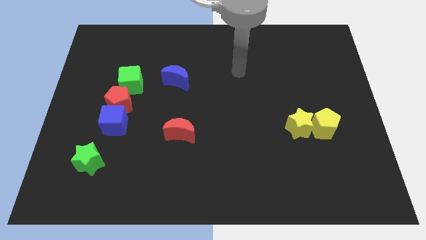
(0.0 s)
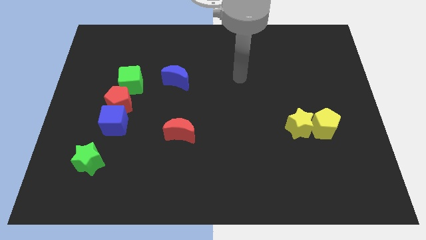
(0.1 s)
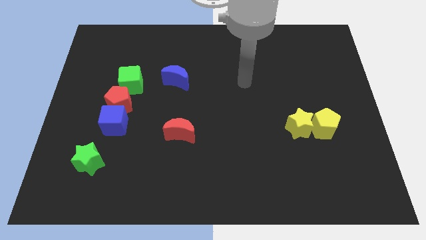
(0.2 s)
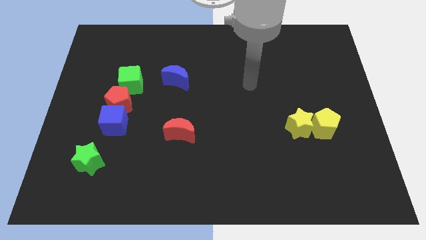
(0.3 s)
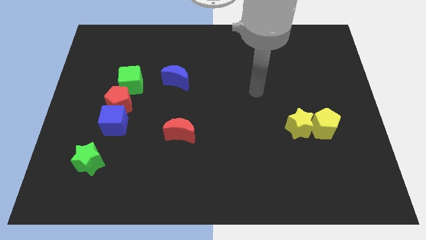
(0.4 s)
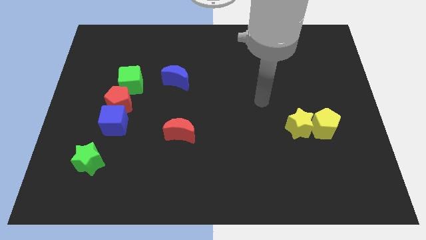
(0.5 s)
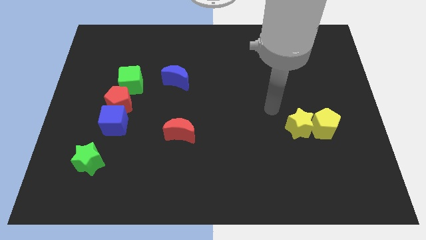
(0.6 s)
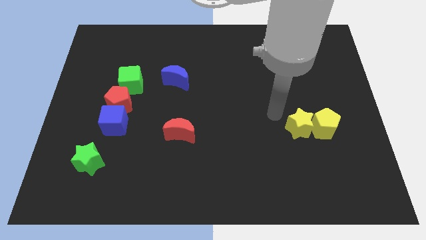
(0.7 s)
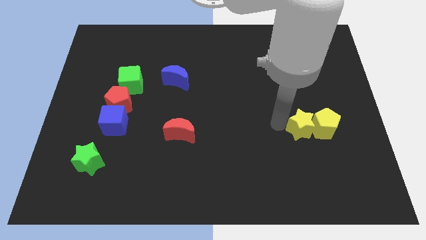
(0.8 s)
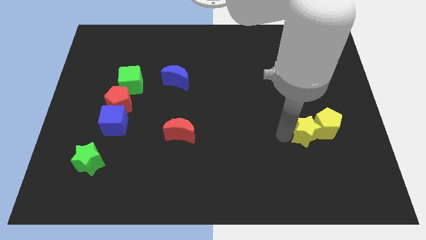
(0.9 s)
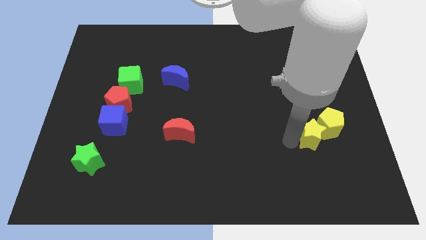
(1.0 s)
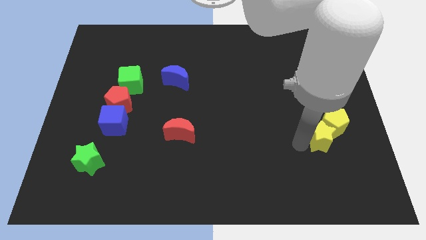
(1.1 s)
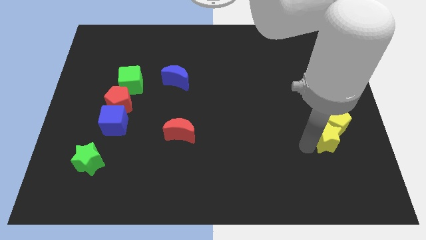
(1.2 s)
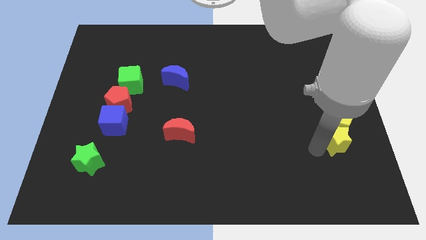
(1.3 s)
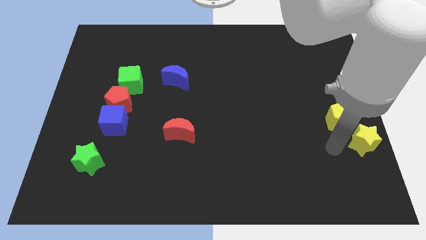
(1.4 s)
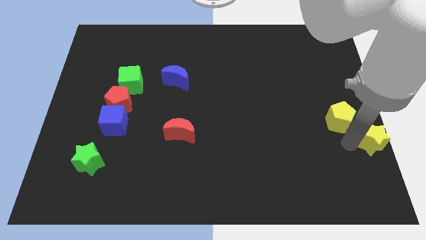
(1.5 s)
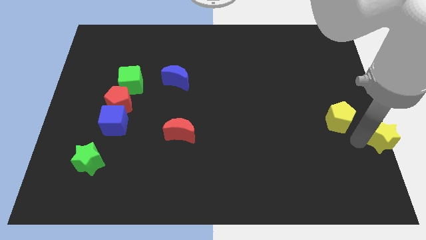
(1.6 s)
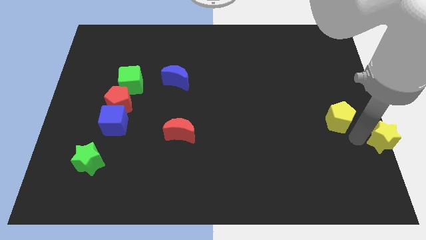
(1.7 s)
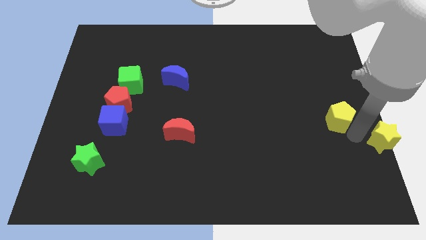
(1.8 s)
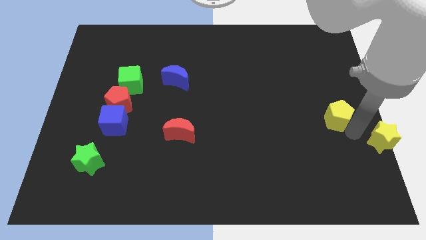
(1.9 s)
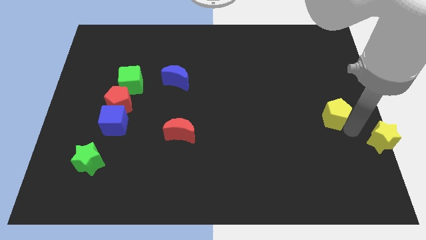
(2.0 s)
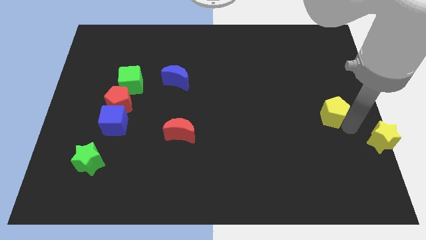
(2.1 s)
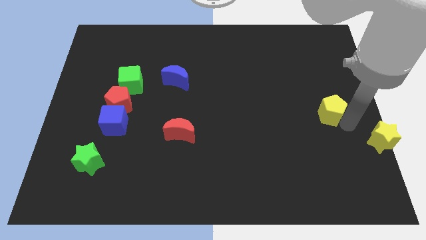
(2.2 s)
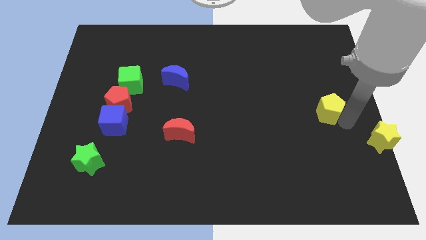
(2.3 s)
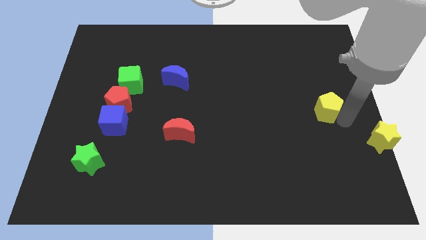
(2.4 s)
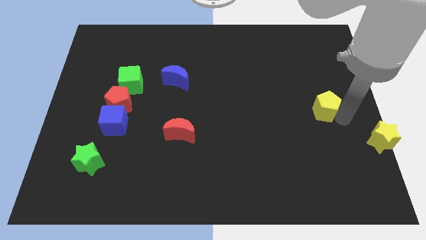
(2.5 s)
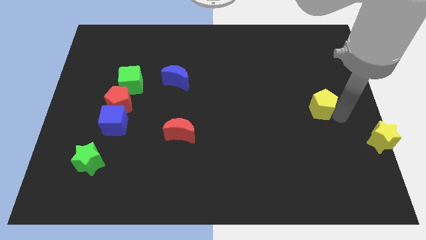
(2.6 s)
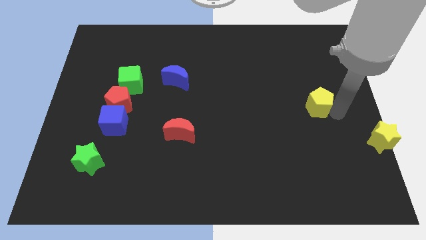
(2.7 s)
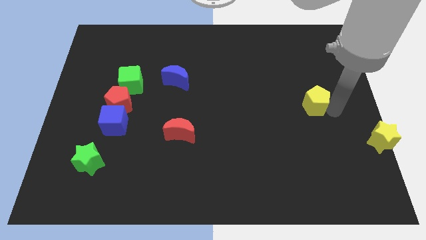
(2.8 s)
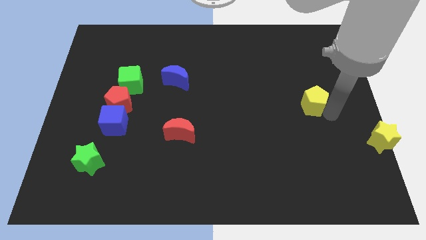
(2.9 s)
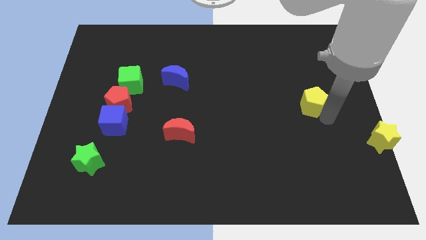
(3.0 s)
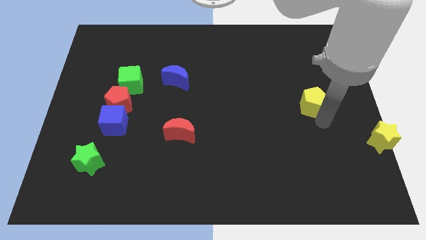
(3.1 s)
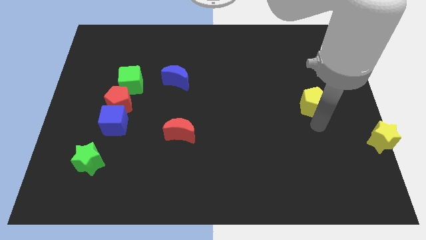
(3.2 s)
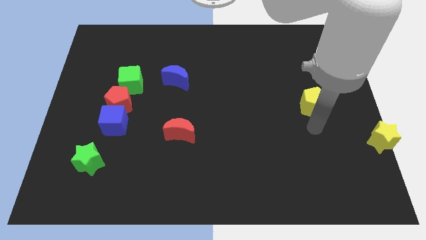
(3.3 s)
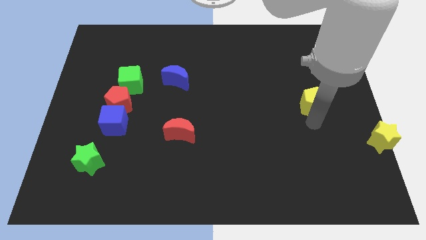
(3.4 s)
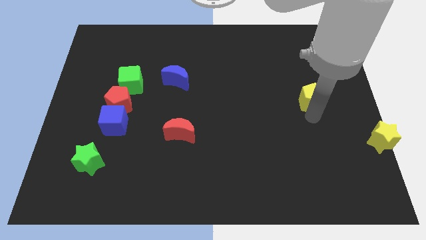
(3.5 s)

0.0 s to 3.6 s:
move the yellow pentagon a little up

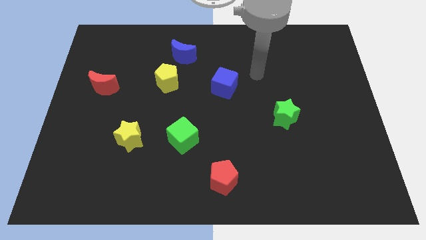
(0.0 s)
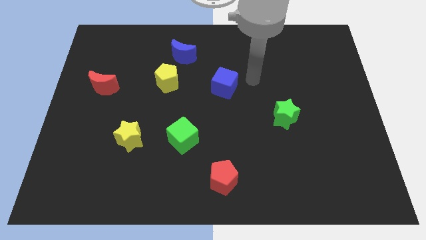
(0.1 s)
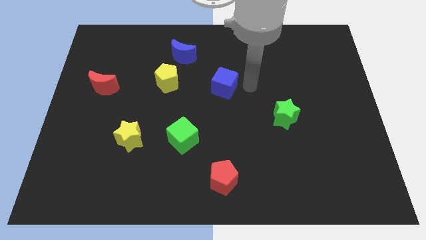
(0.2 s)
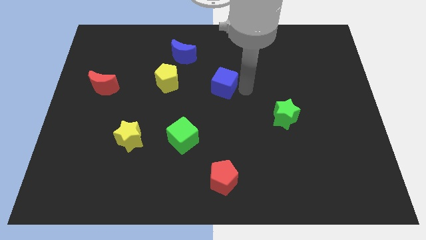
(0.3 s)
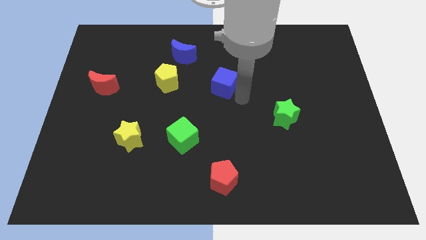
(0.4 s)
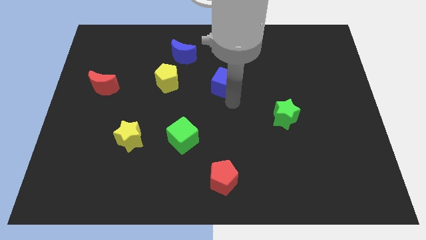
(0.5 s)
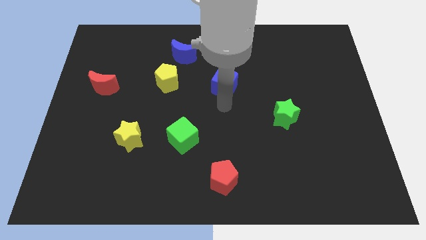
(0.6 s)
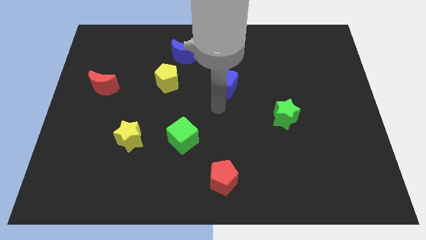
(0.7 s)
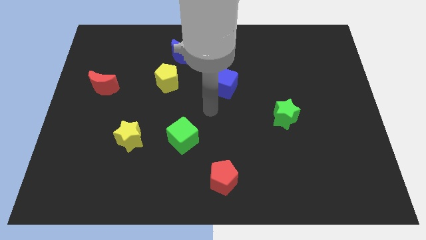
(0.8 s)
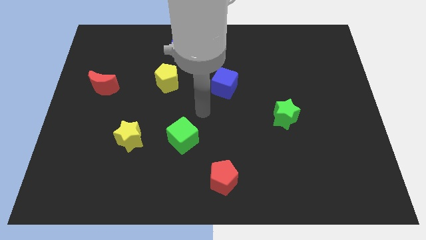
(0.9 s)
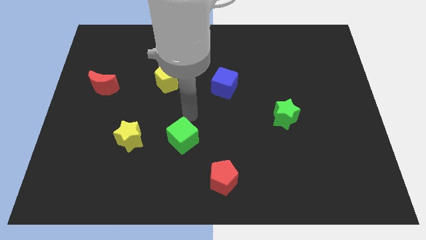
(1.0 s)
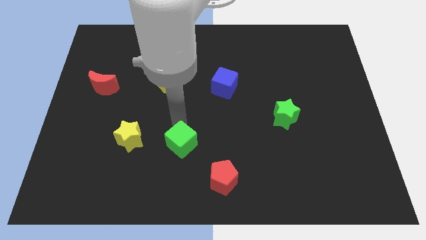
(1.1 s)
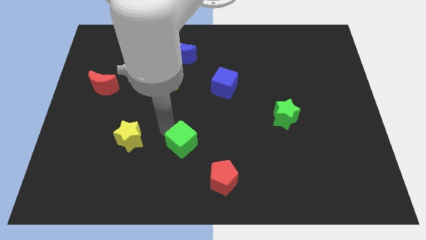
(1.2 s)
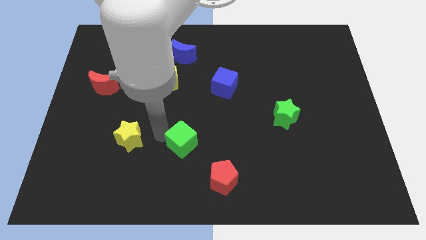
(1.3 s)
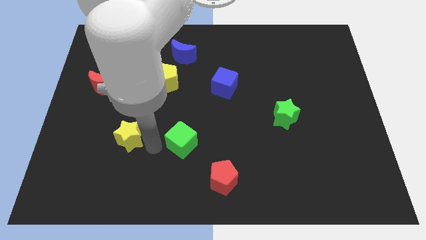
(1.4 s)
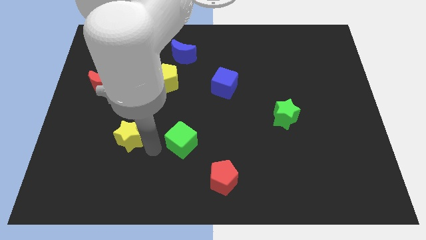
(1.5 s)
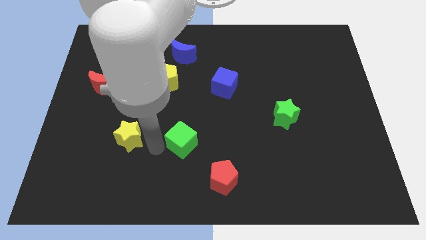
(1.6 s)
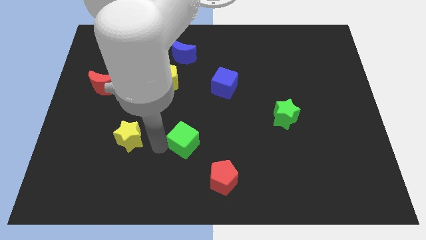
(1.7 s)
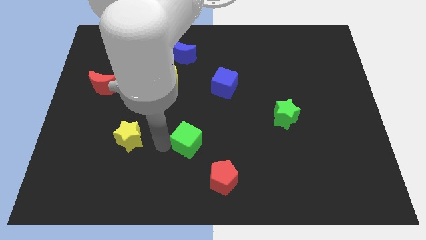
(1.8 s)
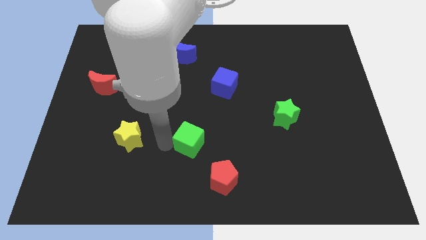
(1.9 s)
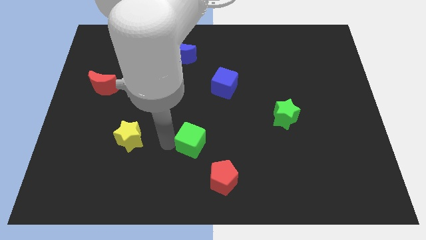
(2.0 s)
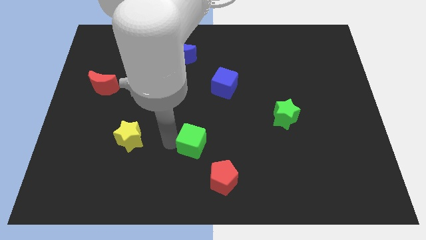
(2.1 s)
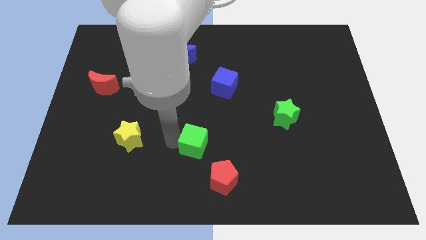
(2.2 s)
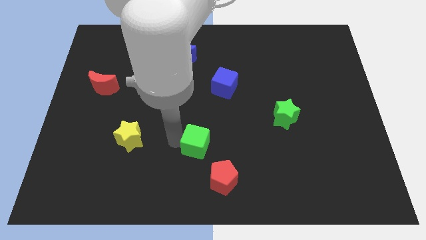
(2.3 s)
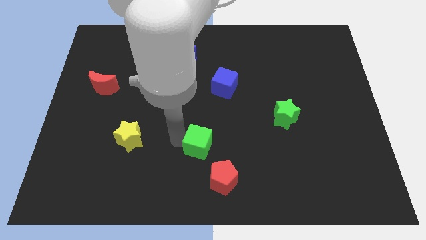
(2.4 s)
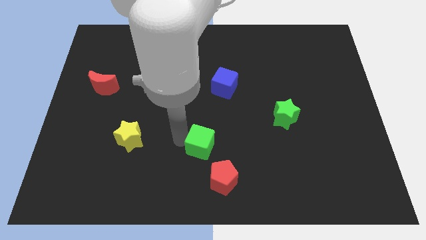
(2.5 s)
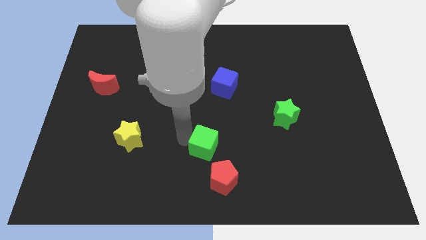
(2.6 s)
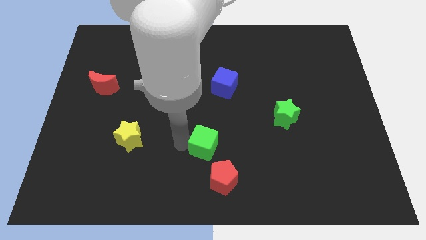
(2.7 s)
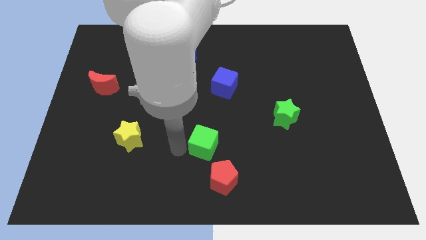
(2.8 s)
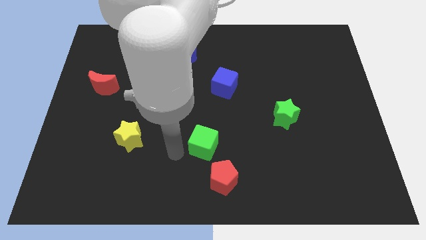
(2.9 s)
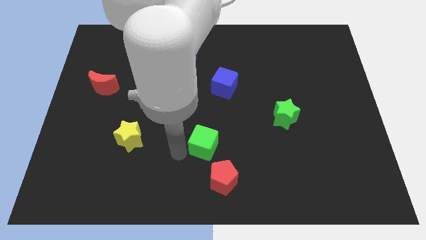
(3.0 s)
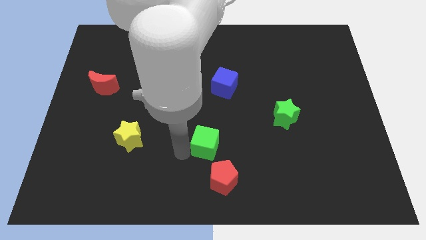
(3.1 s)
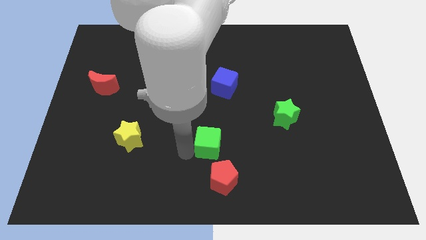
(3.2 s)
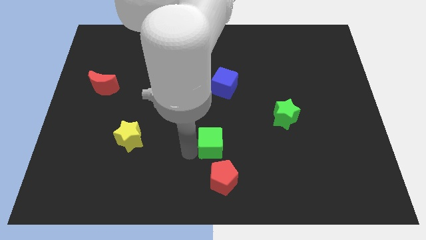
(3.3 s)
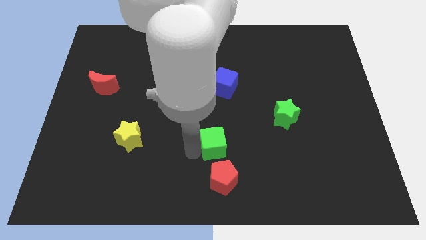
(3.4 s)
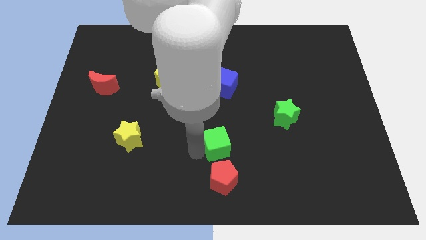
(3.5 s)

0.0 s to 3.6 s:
slightly push the green cube right

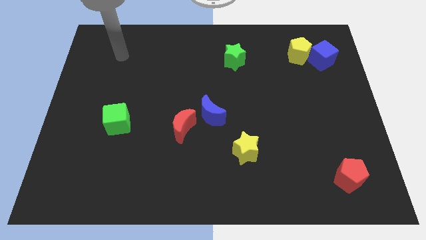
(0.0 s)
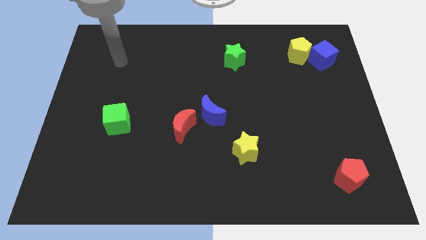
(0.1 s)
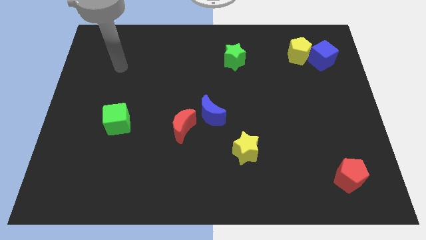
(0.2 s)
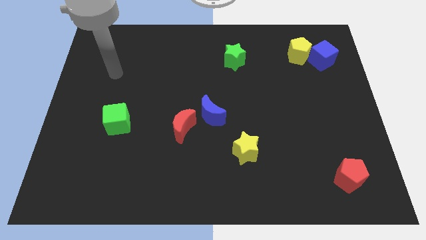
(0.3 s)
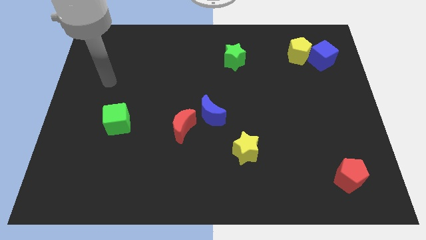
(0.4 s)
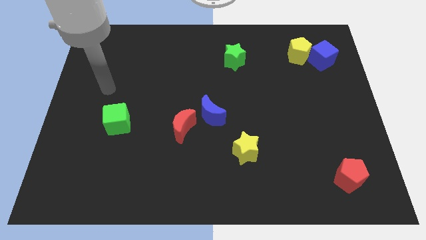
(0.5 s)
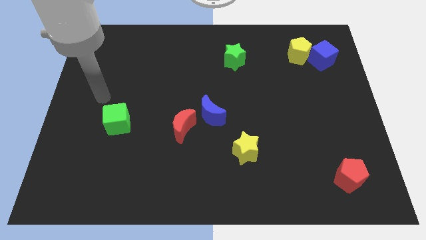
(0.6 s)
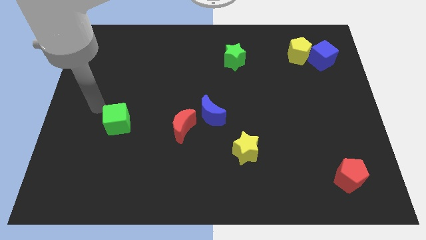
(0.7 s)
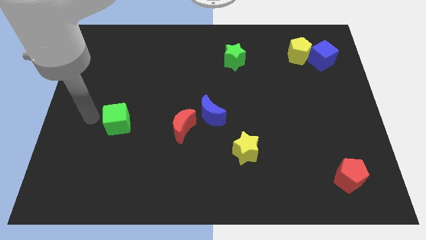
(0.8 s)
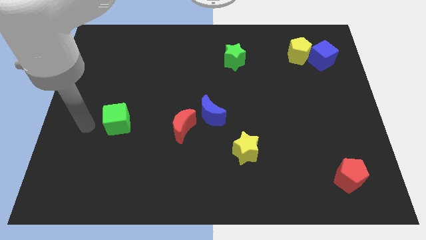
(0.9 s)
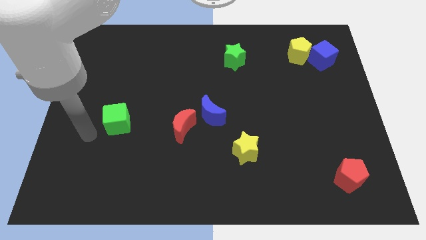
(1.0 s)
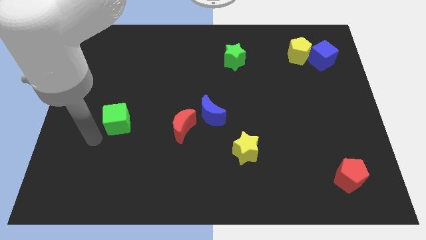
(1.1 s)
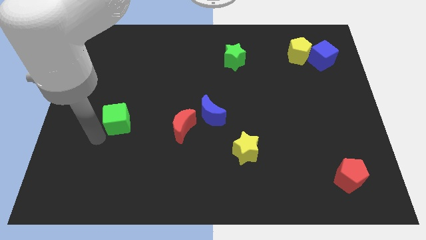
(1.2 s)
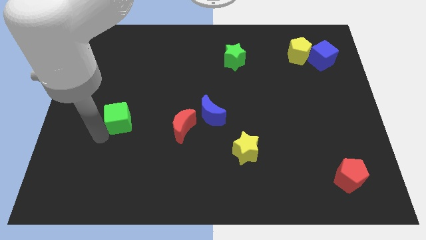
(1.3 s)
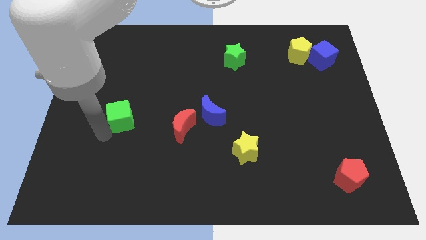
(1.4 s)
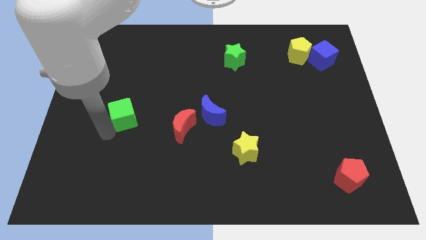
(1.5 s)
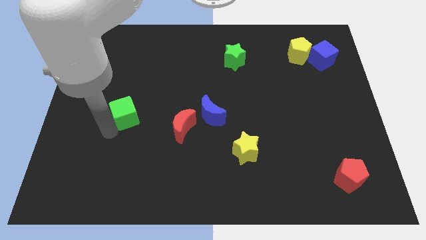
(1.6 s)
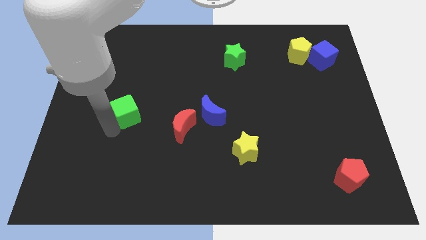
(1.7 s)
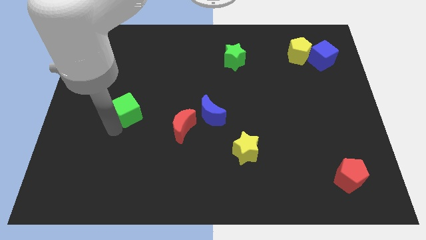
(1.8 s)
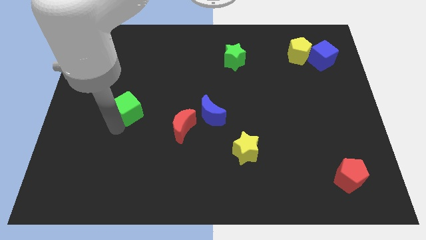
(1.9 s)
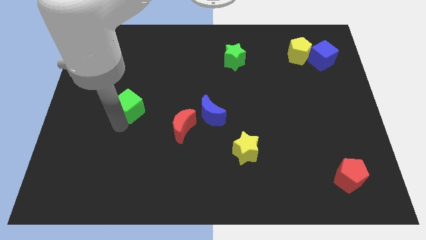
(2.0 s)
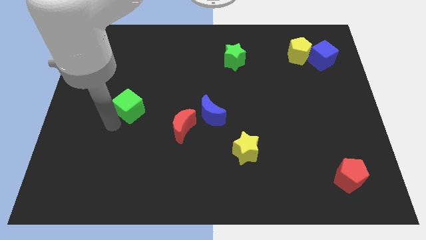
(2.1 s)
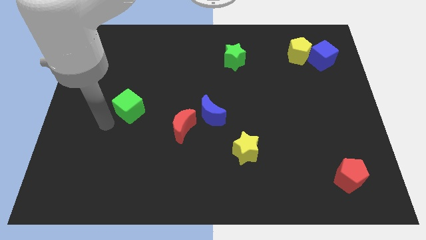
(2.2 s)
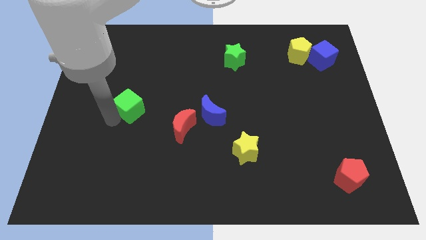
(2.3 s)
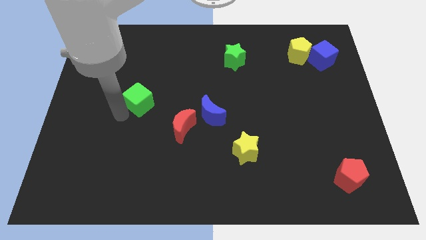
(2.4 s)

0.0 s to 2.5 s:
slide the green cube up and then to the right a little
